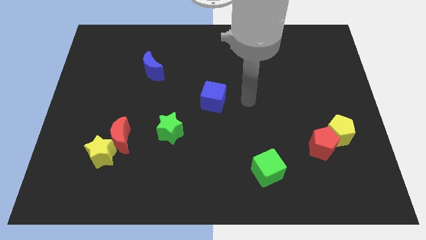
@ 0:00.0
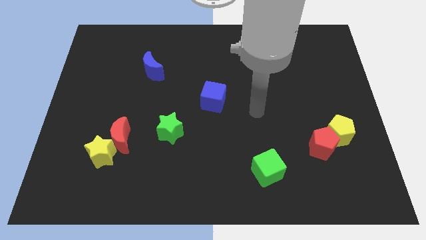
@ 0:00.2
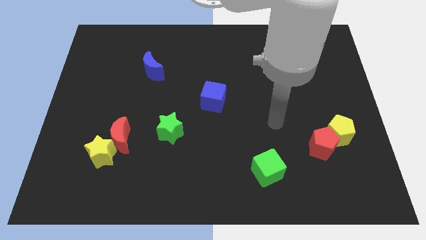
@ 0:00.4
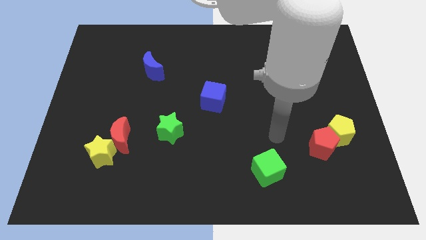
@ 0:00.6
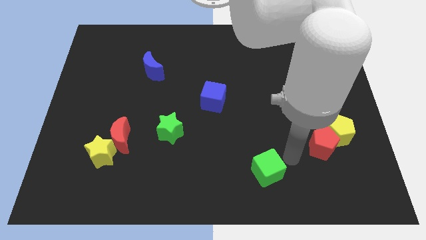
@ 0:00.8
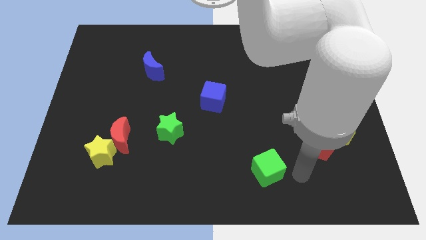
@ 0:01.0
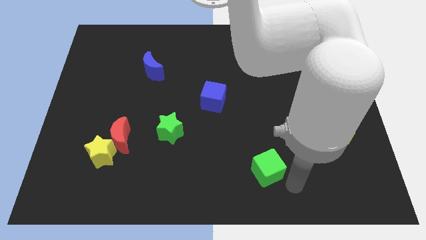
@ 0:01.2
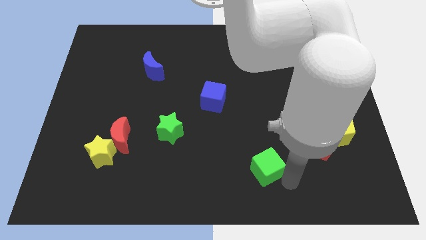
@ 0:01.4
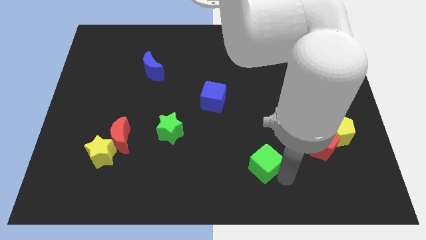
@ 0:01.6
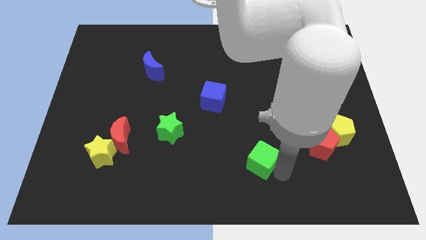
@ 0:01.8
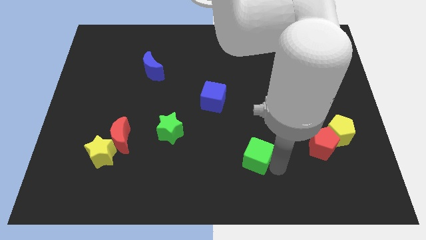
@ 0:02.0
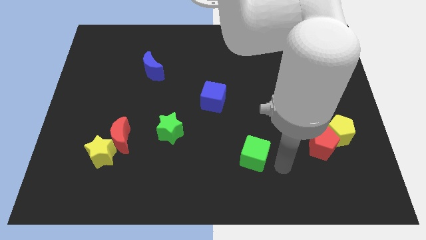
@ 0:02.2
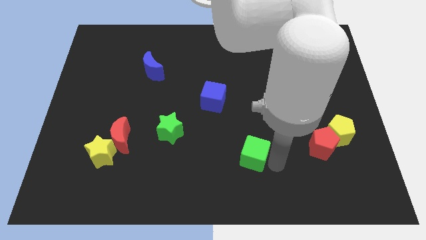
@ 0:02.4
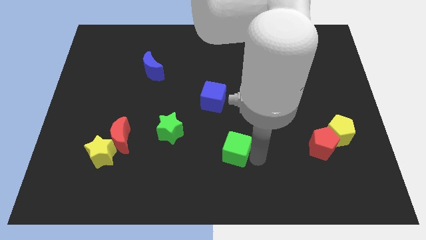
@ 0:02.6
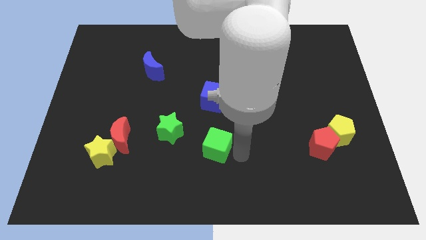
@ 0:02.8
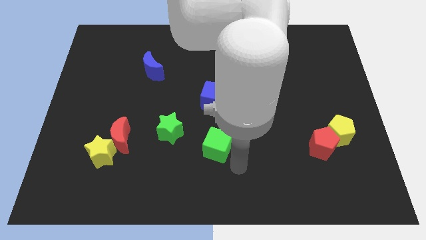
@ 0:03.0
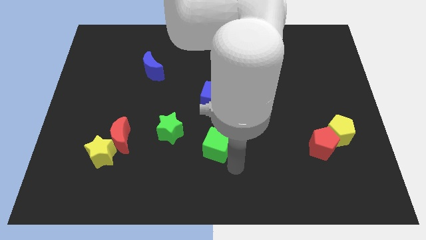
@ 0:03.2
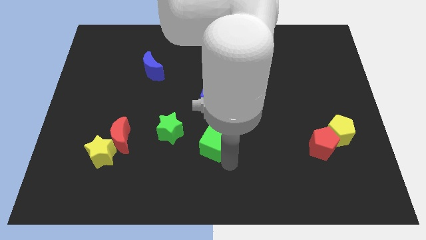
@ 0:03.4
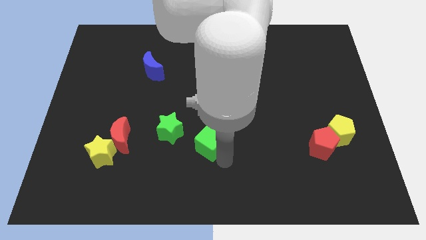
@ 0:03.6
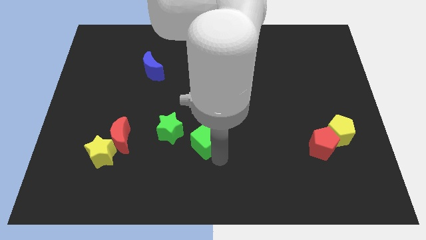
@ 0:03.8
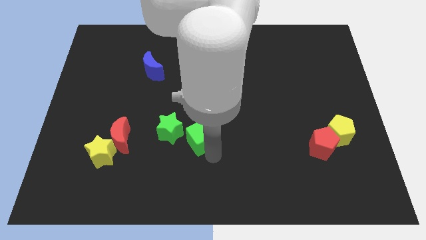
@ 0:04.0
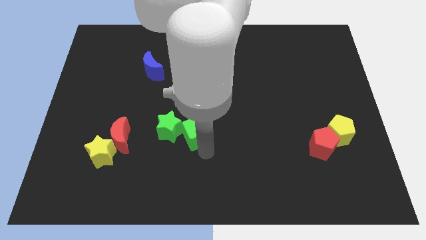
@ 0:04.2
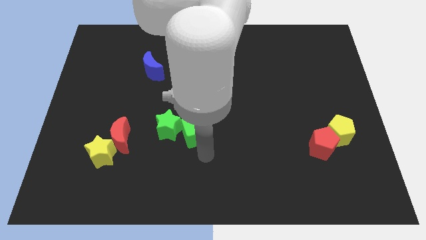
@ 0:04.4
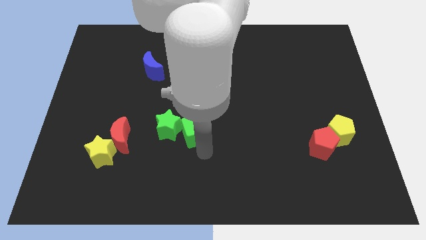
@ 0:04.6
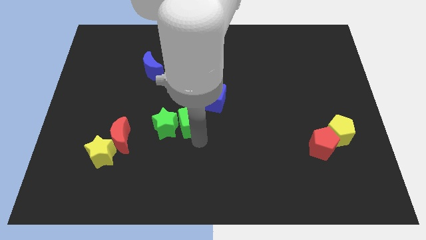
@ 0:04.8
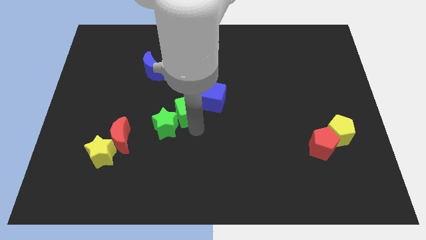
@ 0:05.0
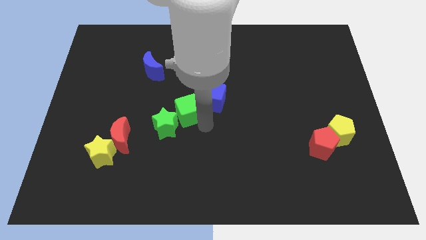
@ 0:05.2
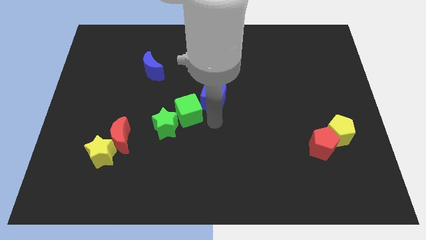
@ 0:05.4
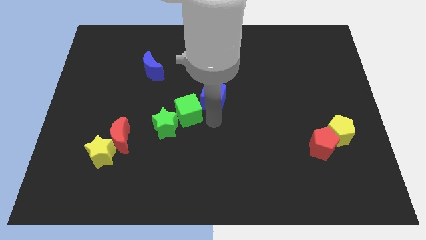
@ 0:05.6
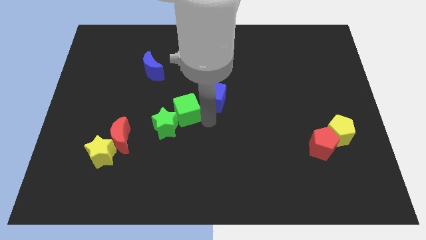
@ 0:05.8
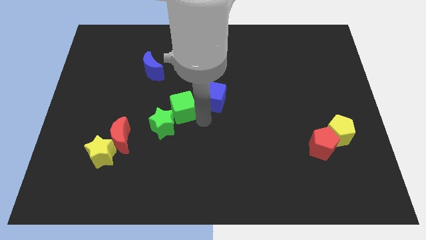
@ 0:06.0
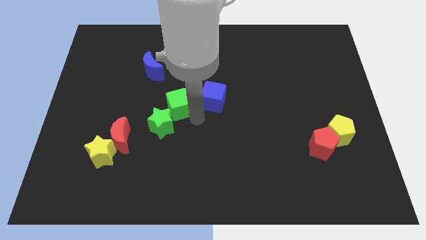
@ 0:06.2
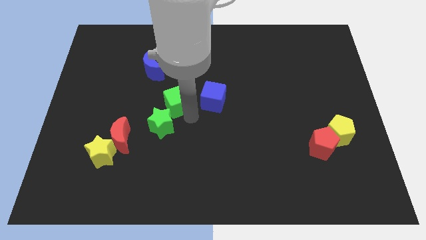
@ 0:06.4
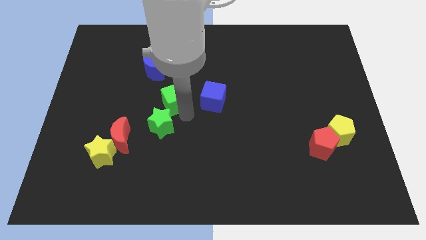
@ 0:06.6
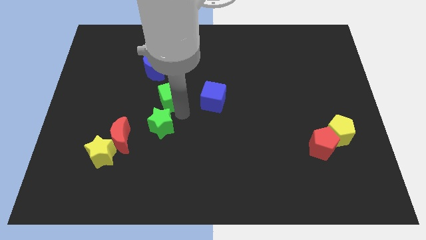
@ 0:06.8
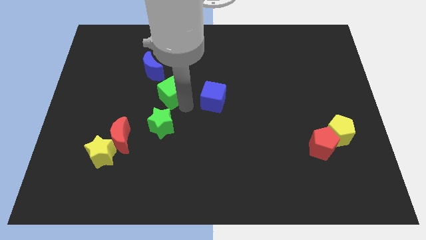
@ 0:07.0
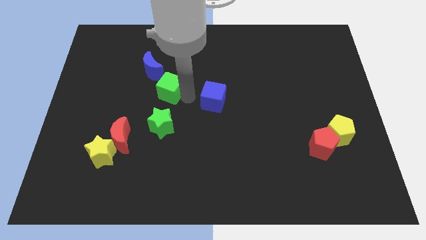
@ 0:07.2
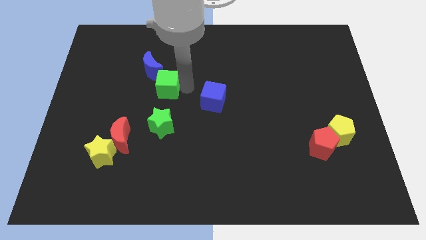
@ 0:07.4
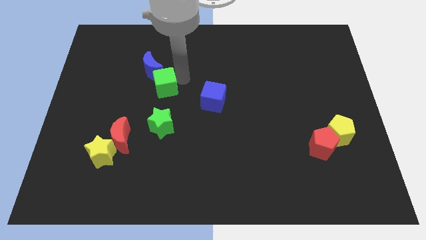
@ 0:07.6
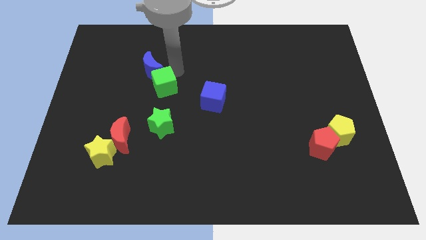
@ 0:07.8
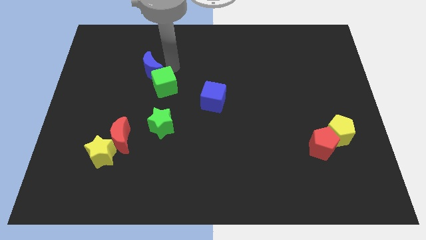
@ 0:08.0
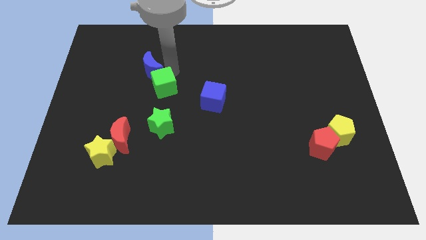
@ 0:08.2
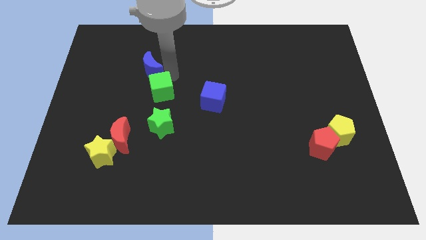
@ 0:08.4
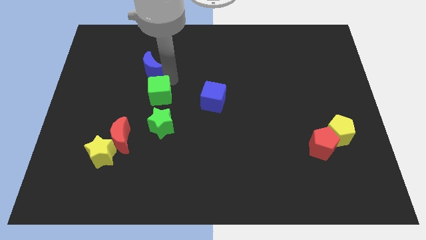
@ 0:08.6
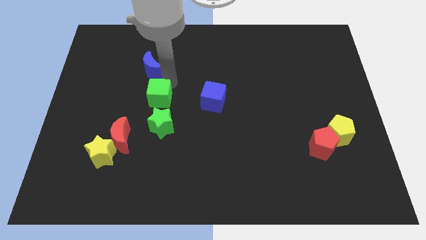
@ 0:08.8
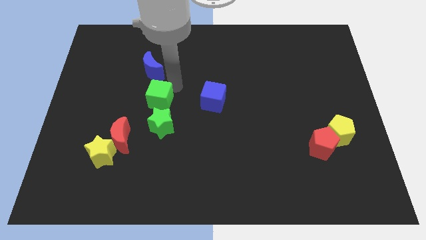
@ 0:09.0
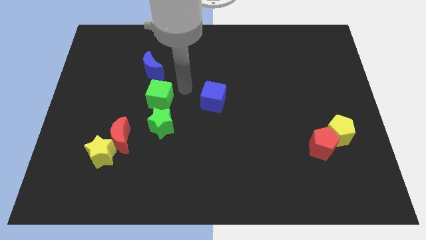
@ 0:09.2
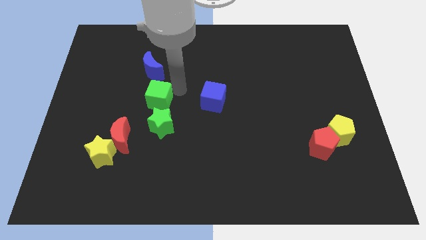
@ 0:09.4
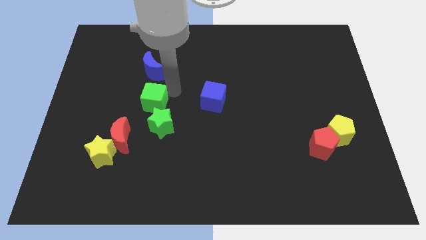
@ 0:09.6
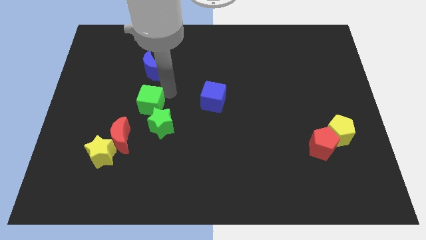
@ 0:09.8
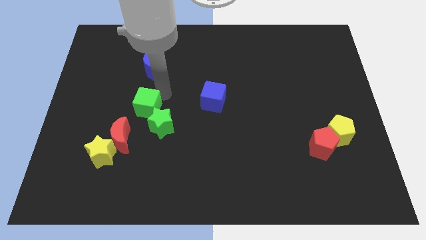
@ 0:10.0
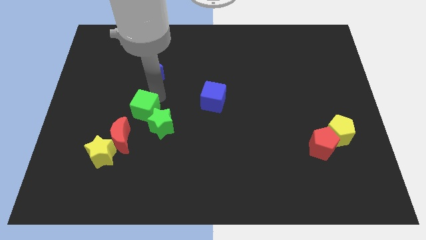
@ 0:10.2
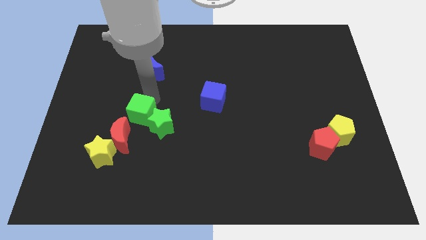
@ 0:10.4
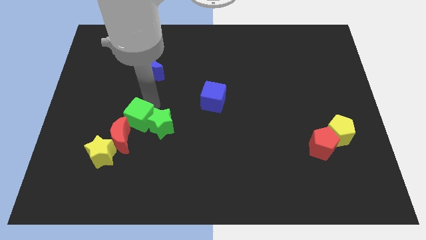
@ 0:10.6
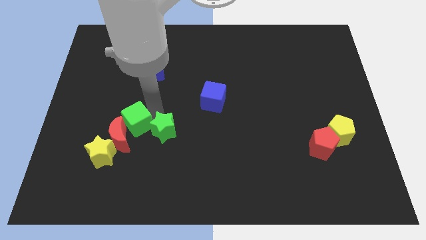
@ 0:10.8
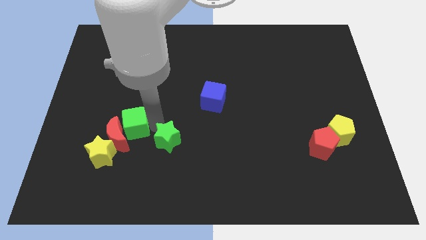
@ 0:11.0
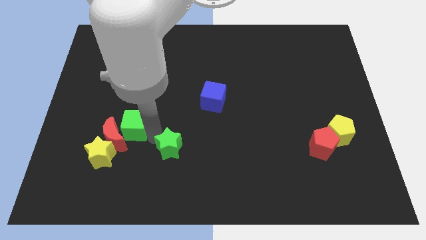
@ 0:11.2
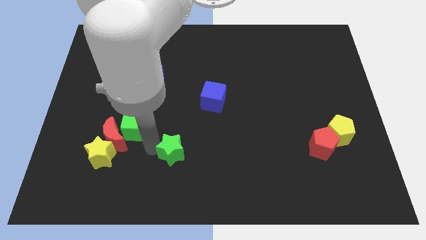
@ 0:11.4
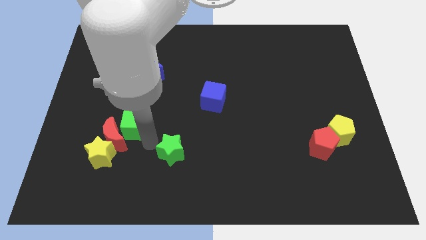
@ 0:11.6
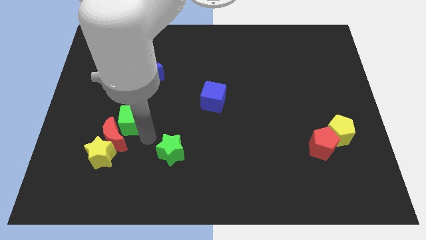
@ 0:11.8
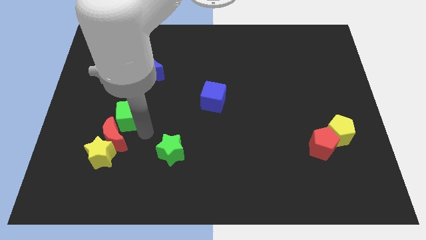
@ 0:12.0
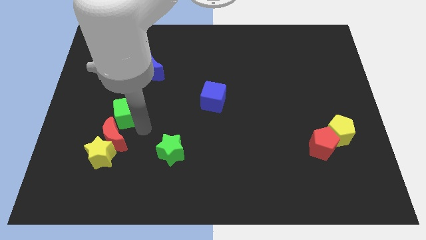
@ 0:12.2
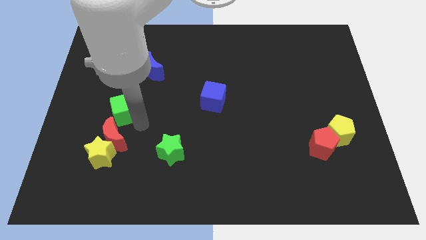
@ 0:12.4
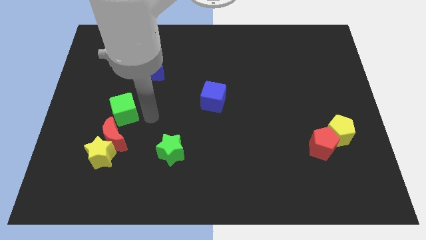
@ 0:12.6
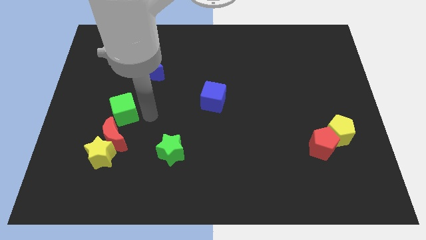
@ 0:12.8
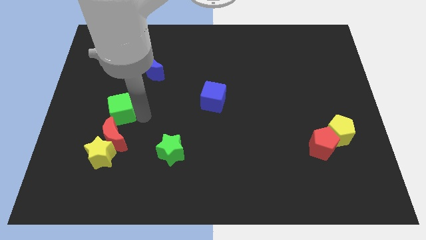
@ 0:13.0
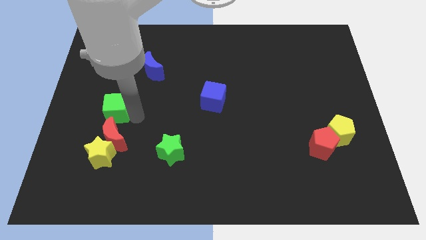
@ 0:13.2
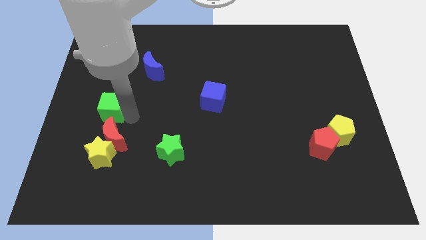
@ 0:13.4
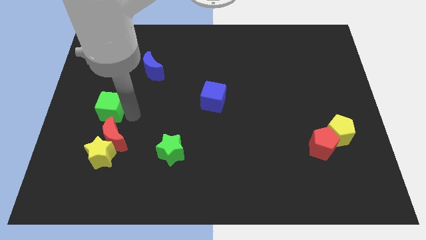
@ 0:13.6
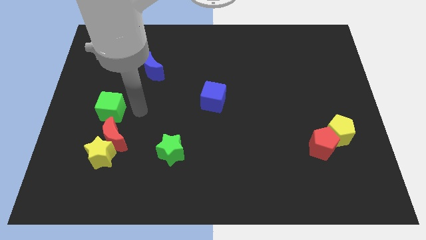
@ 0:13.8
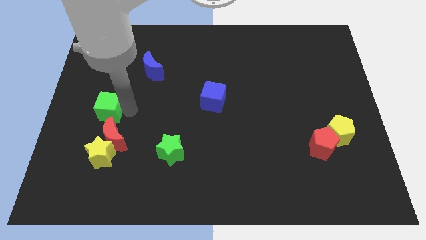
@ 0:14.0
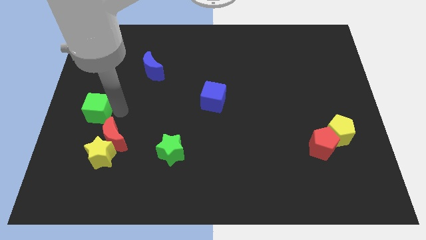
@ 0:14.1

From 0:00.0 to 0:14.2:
move the green cube to the center left

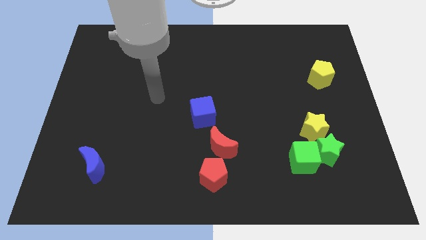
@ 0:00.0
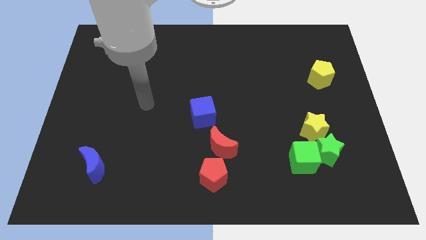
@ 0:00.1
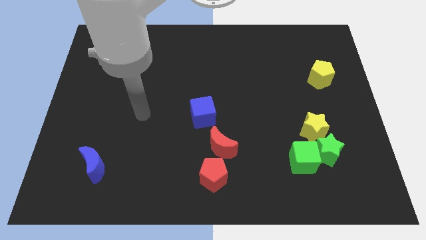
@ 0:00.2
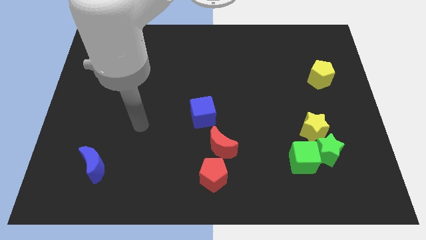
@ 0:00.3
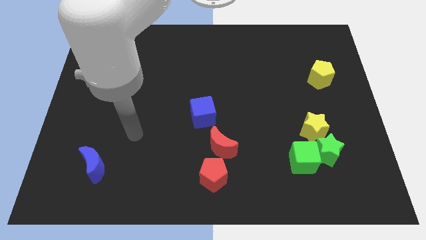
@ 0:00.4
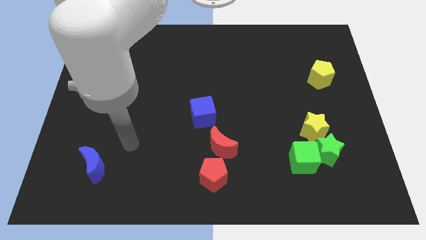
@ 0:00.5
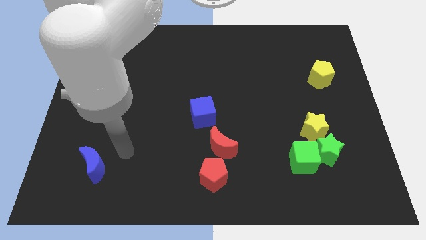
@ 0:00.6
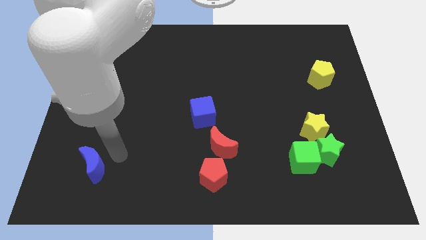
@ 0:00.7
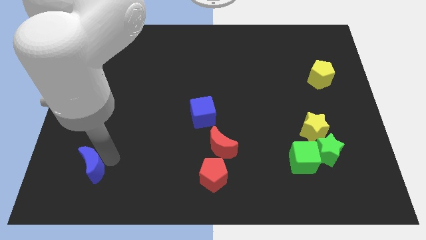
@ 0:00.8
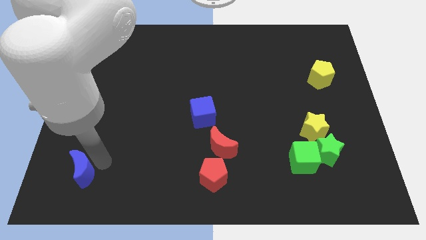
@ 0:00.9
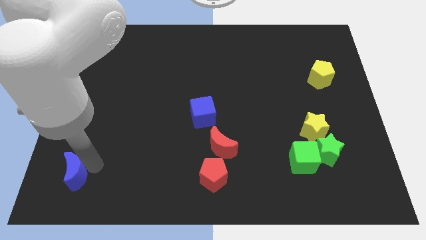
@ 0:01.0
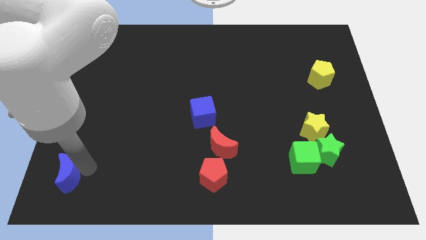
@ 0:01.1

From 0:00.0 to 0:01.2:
put the blue moon to the bottom left of the board
